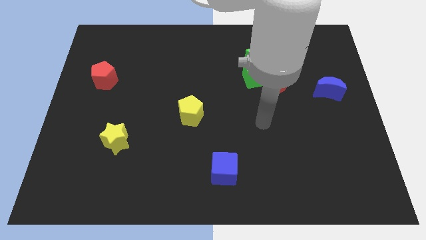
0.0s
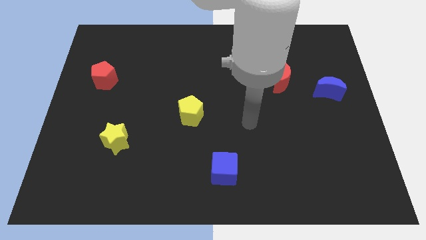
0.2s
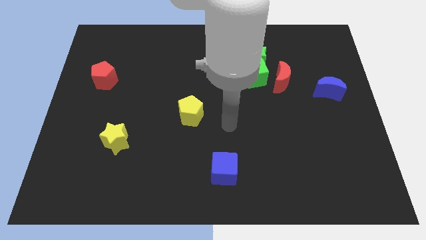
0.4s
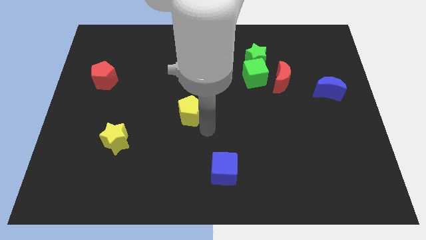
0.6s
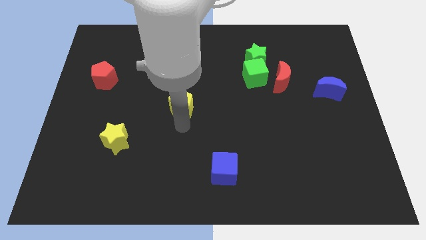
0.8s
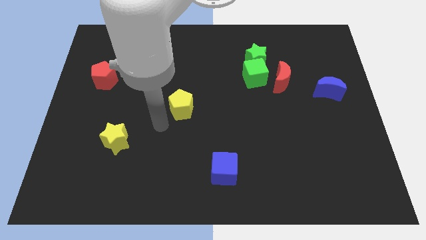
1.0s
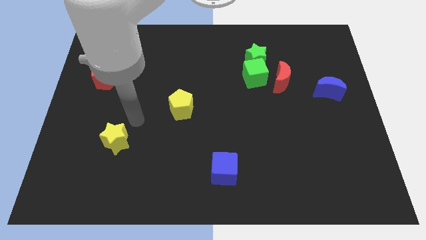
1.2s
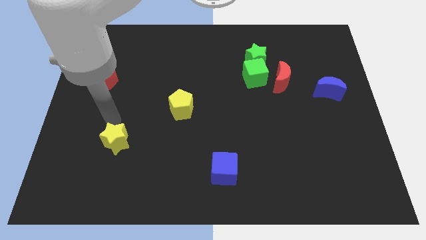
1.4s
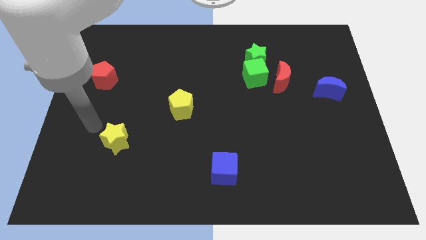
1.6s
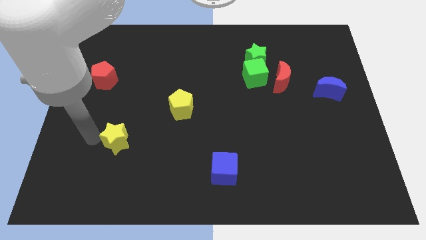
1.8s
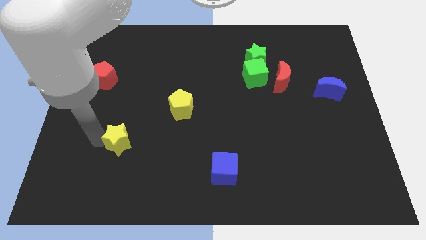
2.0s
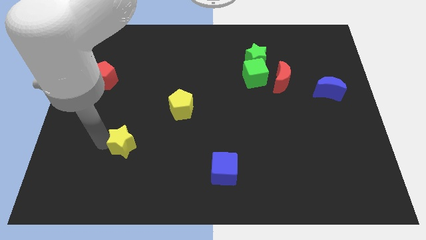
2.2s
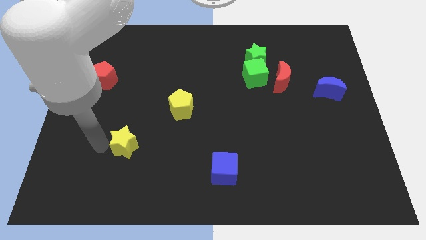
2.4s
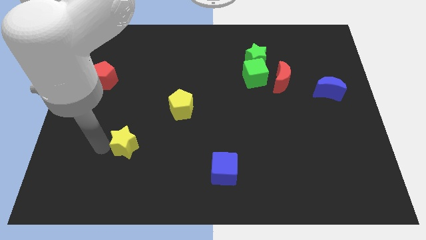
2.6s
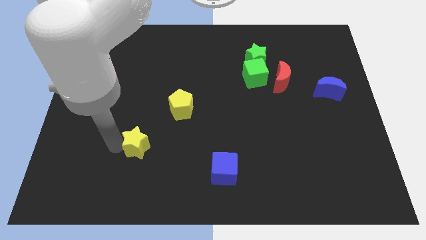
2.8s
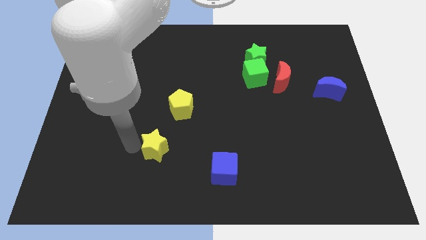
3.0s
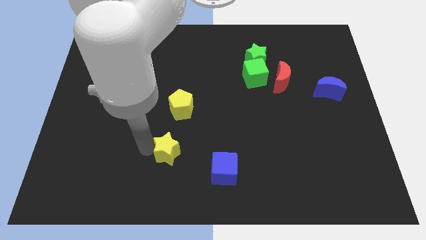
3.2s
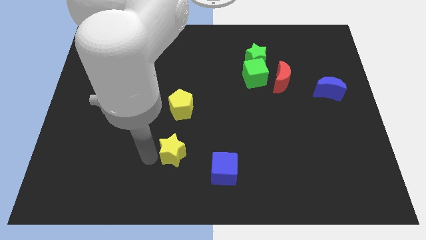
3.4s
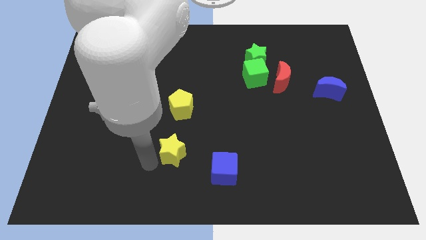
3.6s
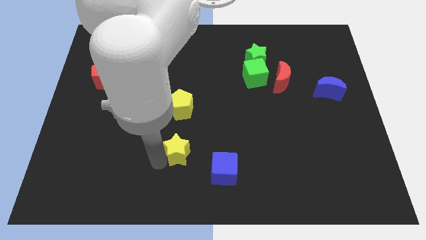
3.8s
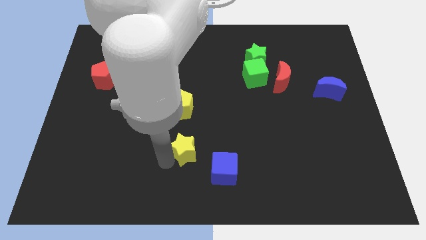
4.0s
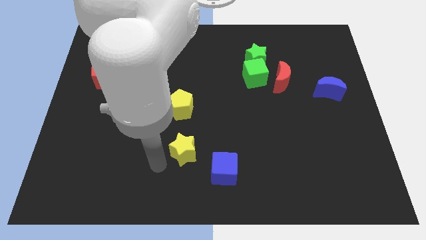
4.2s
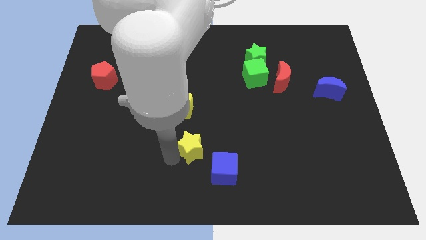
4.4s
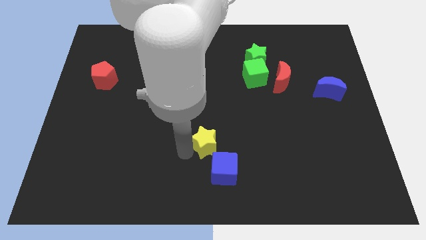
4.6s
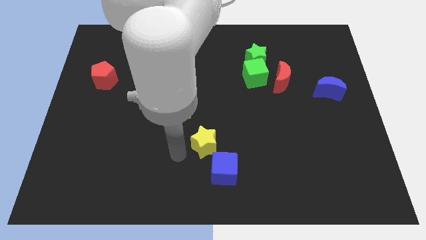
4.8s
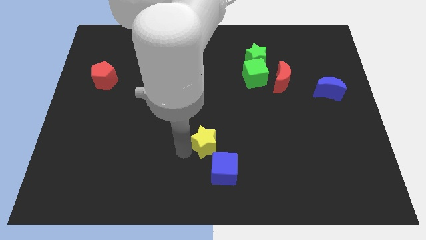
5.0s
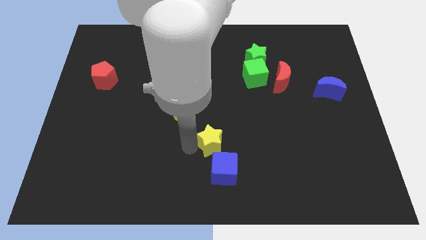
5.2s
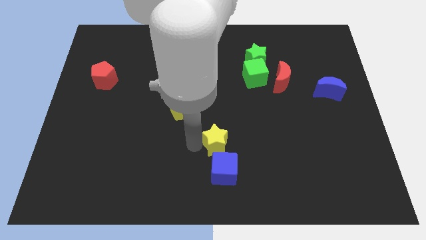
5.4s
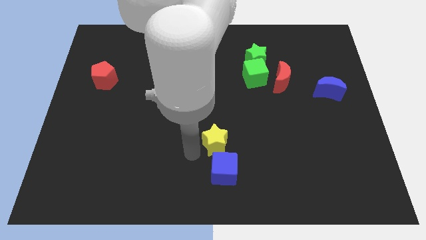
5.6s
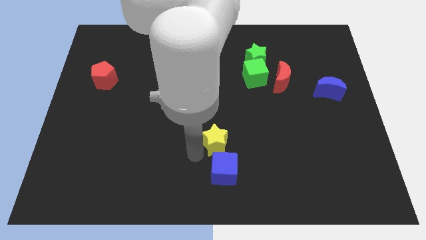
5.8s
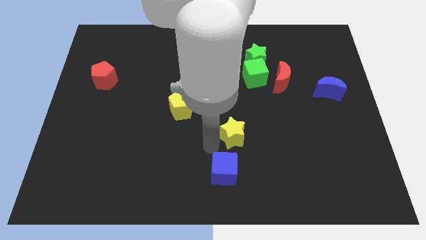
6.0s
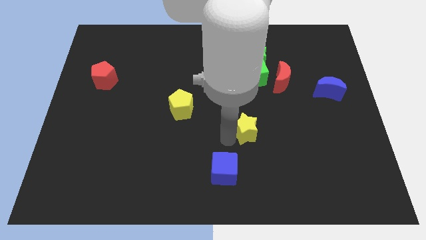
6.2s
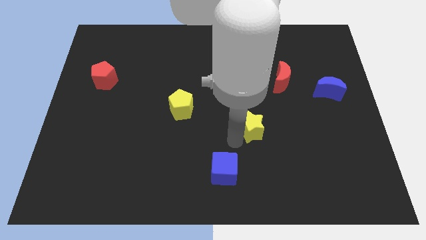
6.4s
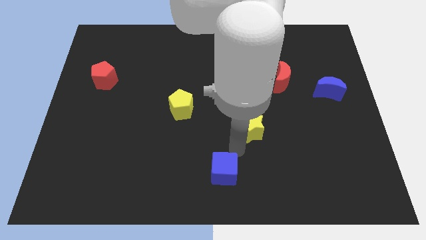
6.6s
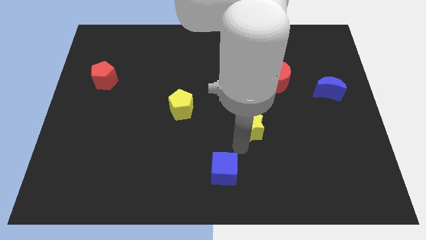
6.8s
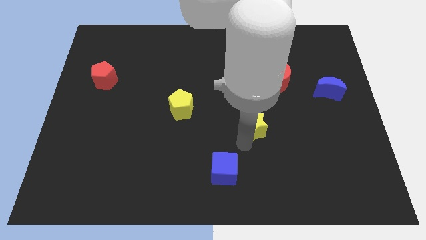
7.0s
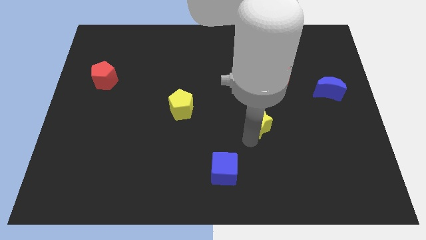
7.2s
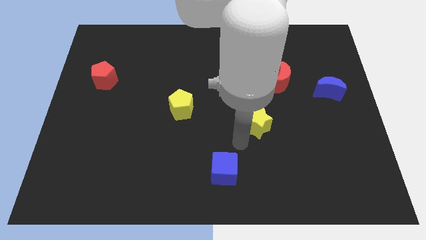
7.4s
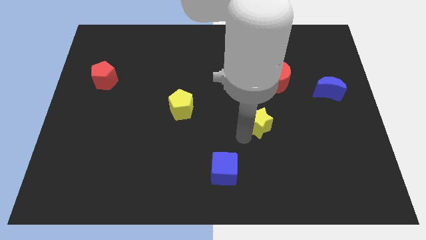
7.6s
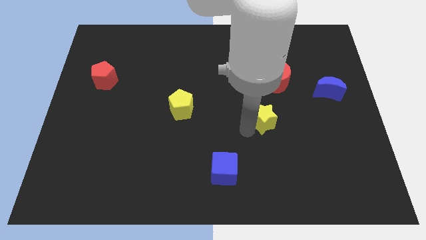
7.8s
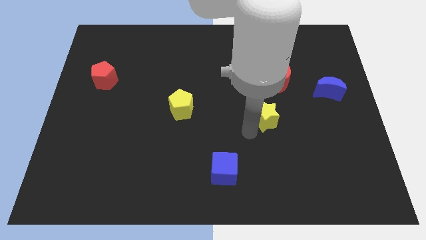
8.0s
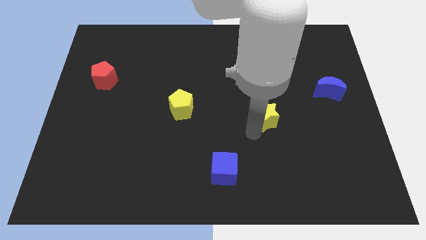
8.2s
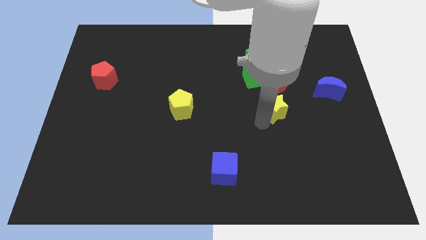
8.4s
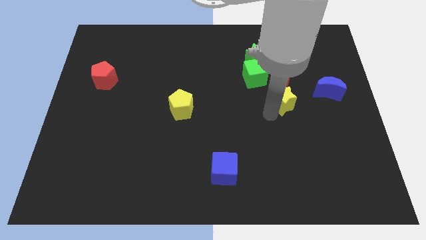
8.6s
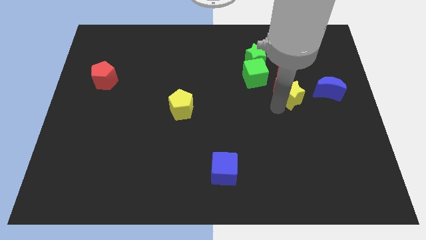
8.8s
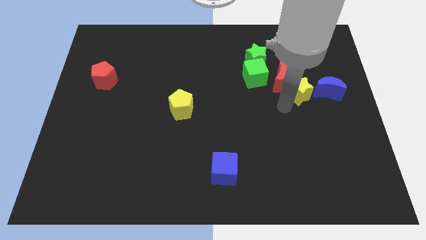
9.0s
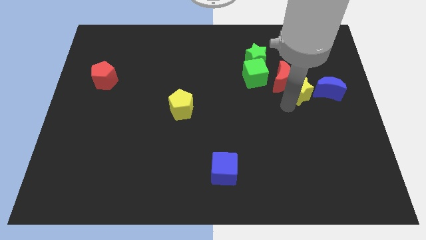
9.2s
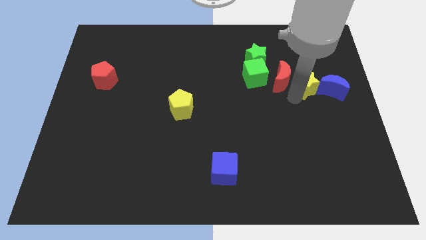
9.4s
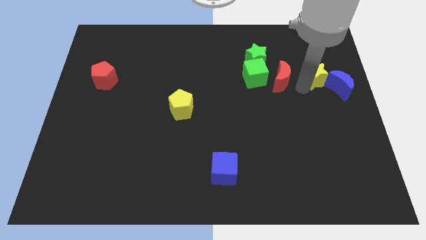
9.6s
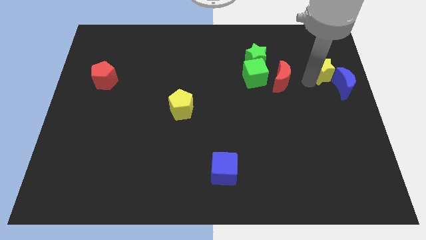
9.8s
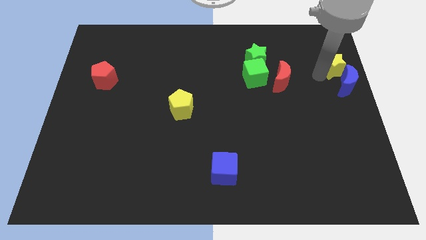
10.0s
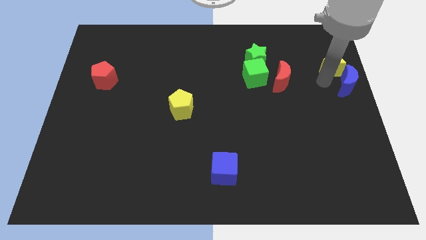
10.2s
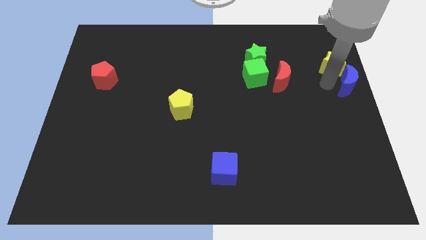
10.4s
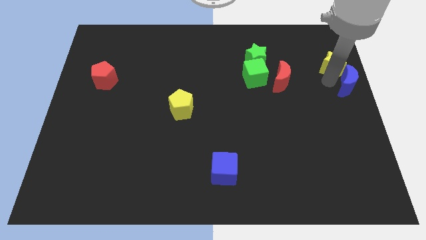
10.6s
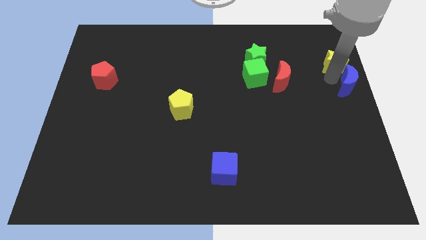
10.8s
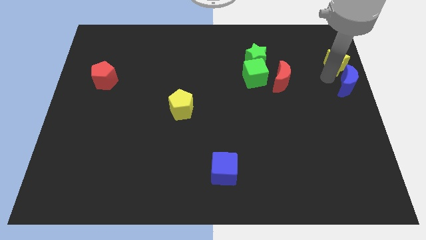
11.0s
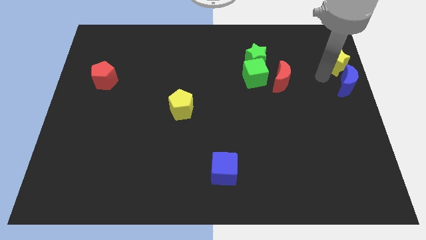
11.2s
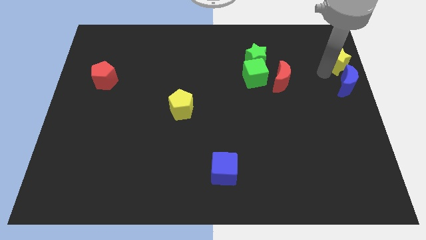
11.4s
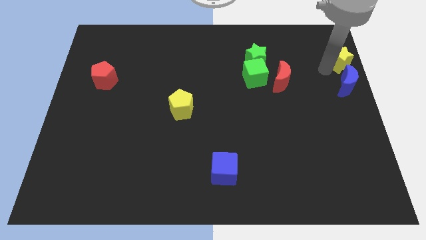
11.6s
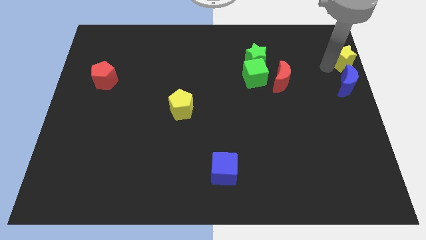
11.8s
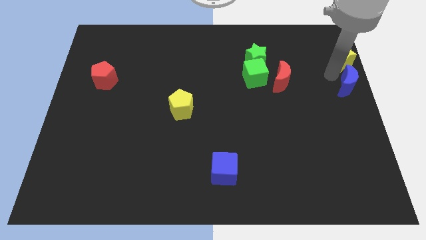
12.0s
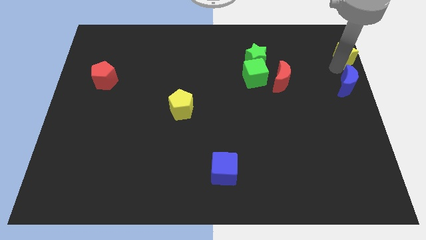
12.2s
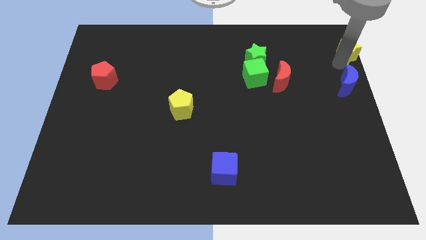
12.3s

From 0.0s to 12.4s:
put the yellow star to the top right corner
